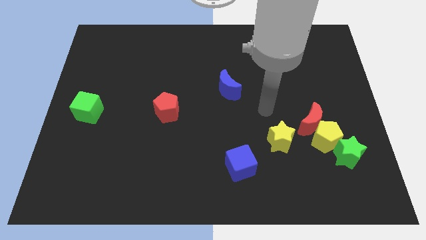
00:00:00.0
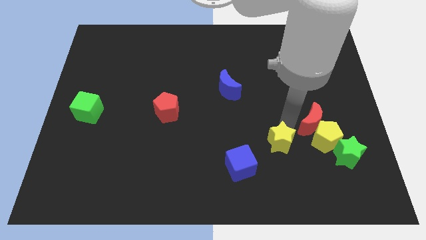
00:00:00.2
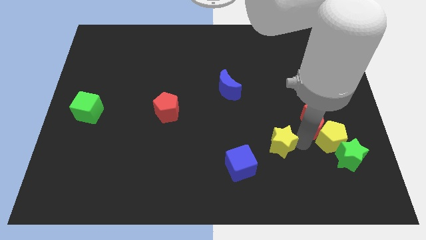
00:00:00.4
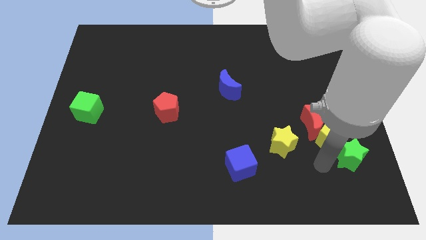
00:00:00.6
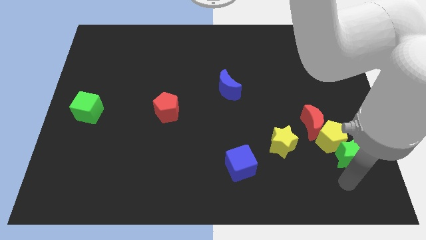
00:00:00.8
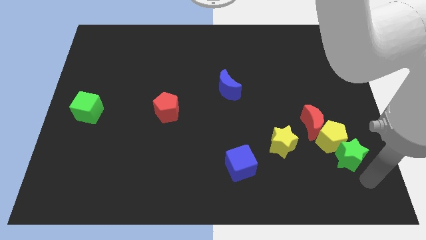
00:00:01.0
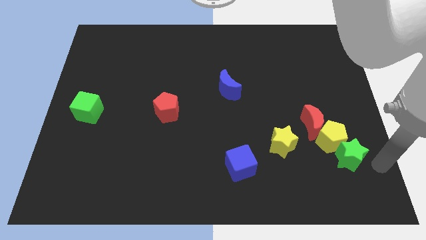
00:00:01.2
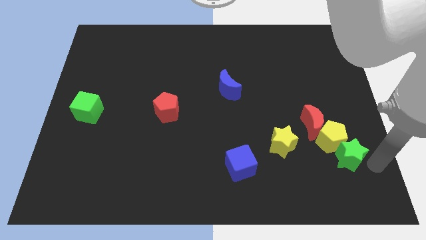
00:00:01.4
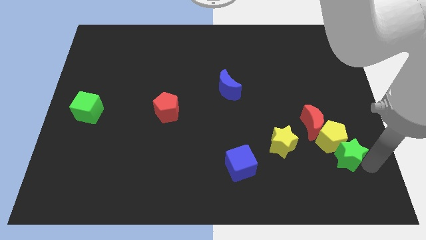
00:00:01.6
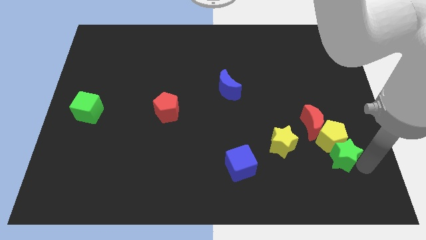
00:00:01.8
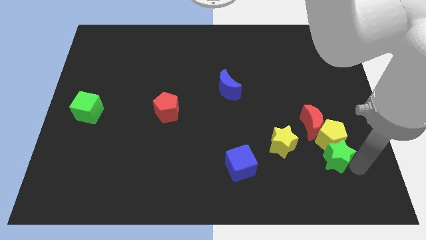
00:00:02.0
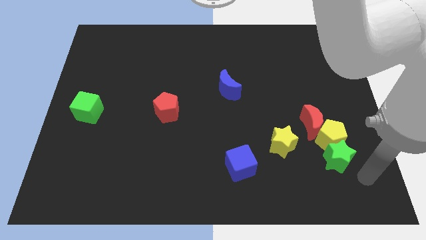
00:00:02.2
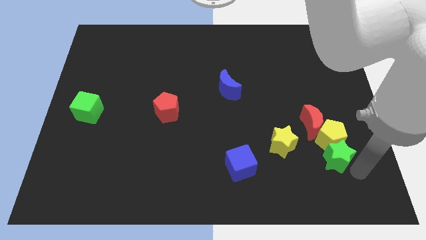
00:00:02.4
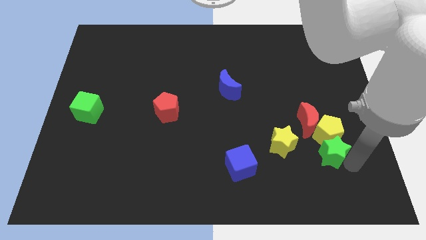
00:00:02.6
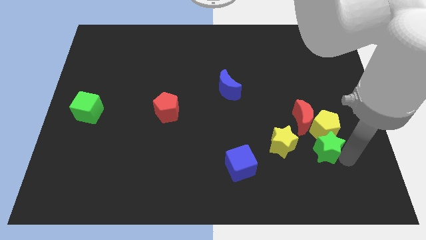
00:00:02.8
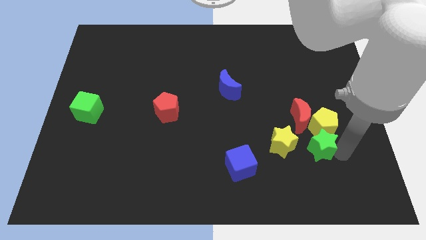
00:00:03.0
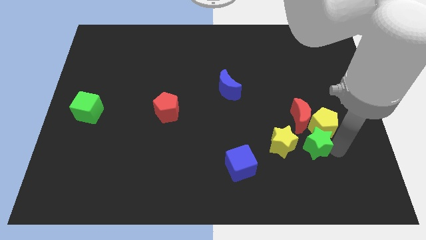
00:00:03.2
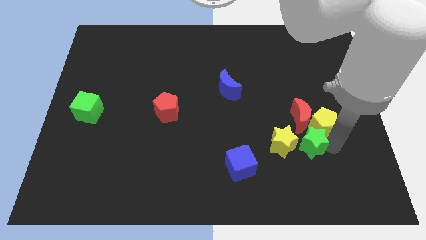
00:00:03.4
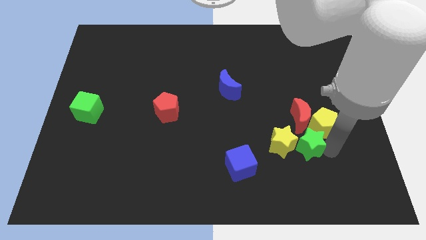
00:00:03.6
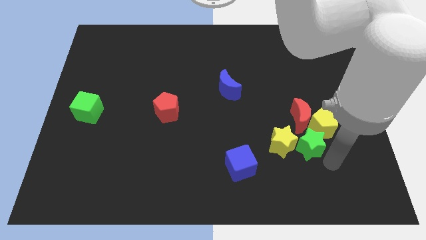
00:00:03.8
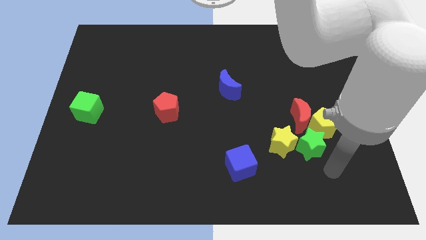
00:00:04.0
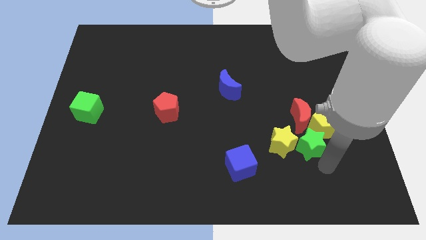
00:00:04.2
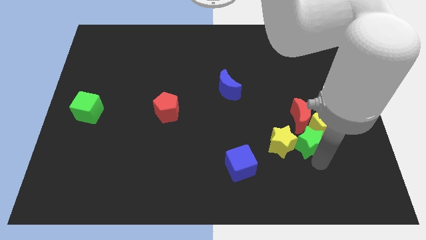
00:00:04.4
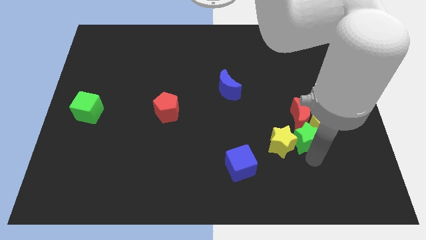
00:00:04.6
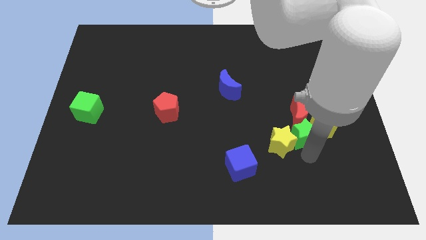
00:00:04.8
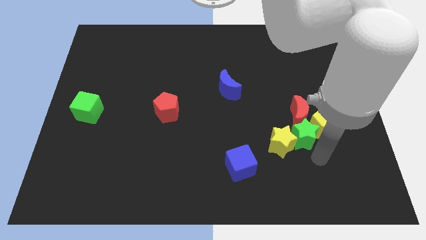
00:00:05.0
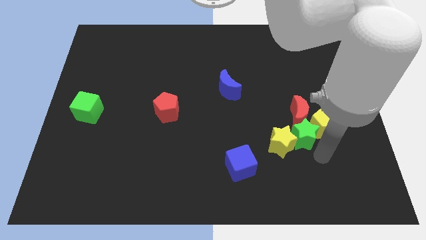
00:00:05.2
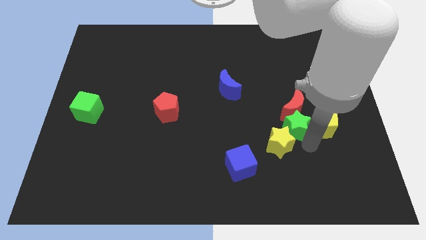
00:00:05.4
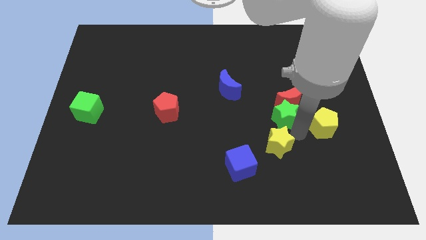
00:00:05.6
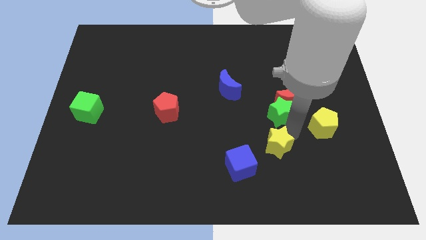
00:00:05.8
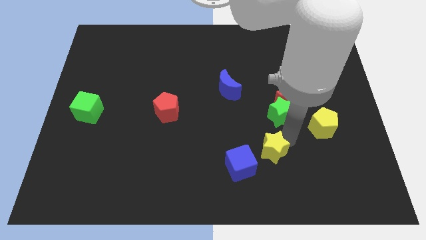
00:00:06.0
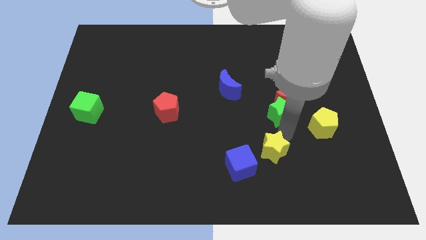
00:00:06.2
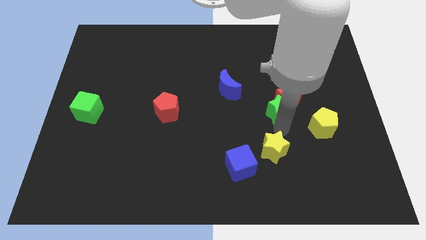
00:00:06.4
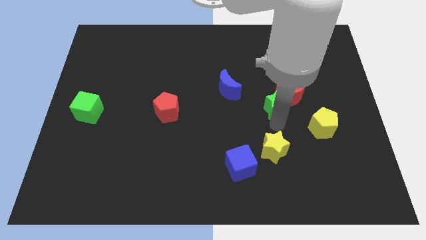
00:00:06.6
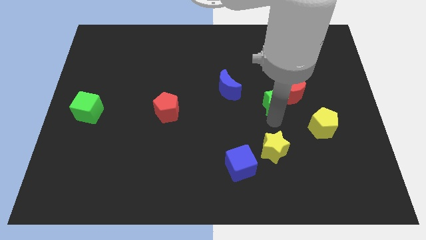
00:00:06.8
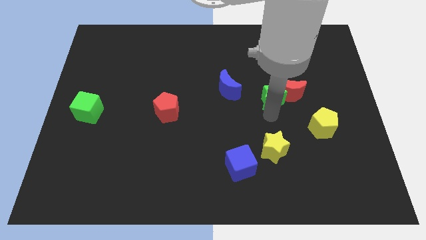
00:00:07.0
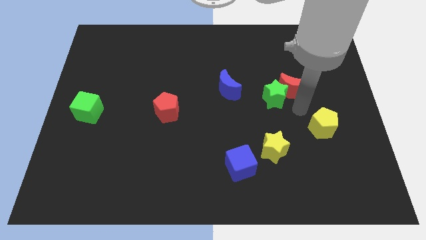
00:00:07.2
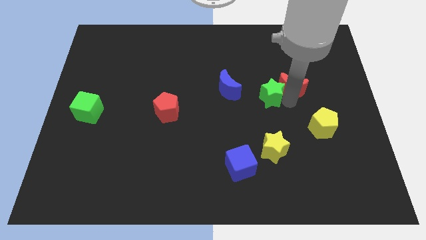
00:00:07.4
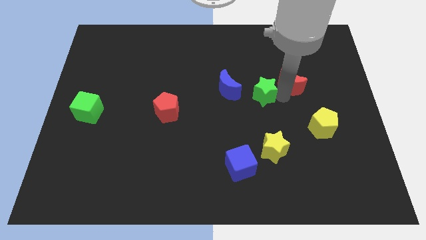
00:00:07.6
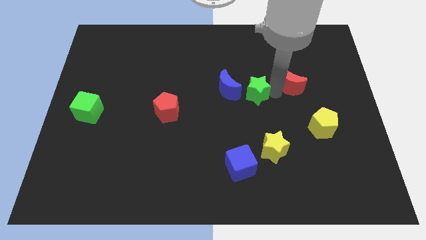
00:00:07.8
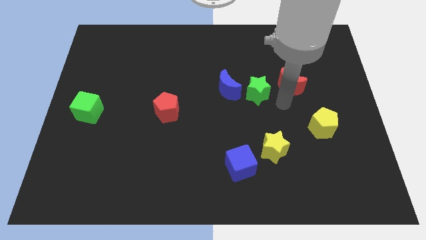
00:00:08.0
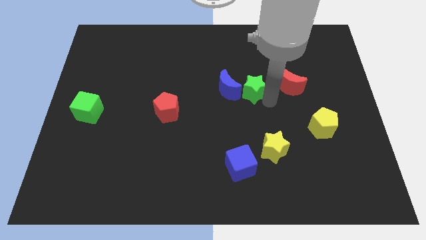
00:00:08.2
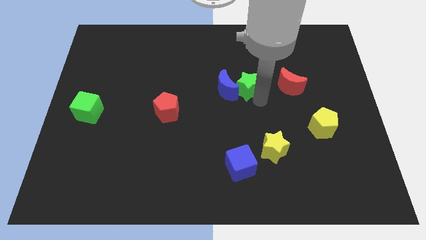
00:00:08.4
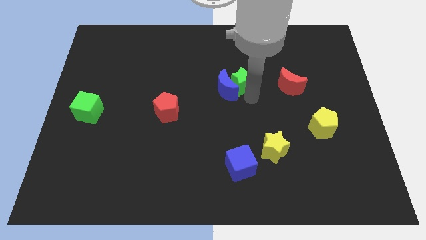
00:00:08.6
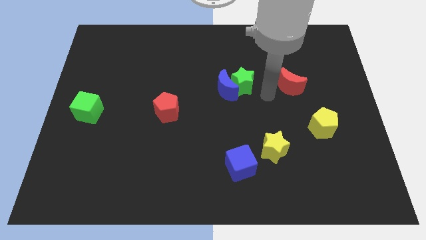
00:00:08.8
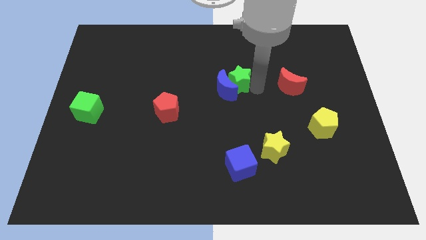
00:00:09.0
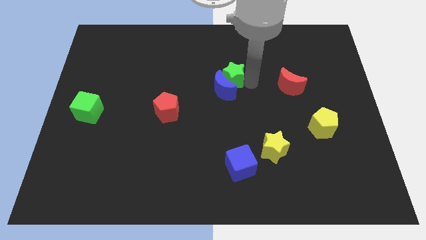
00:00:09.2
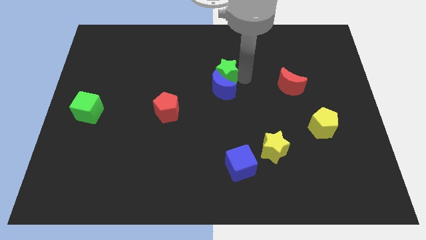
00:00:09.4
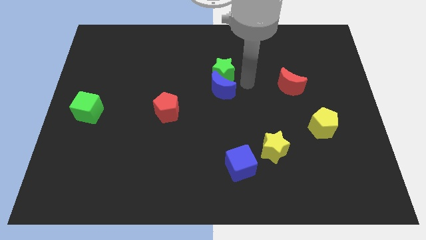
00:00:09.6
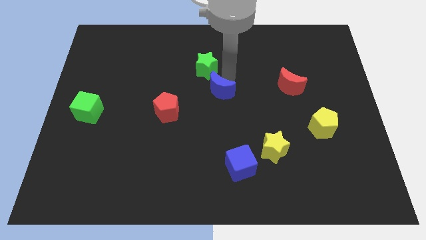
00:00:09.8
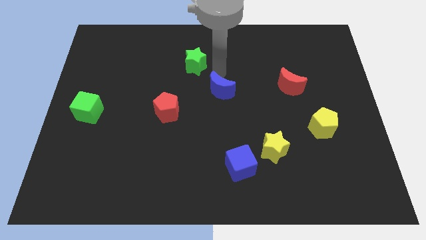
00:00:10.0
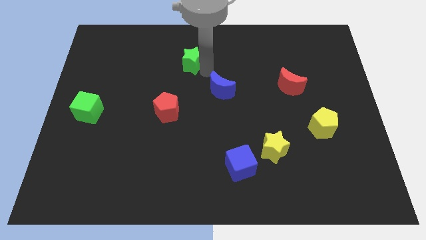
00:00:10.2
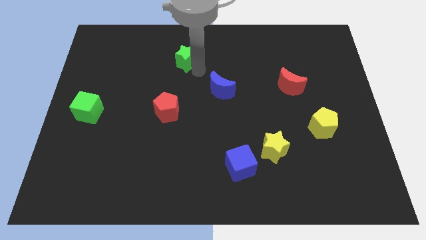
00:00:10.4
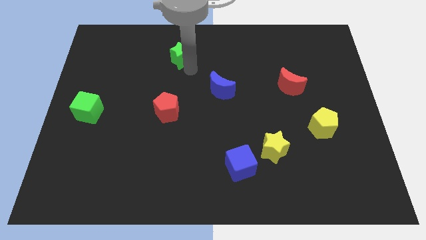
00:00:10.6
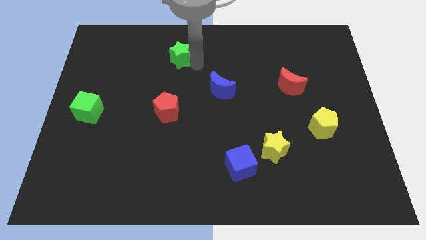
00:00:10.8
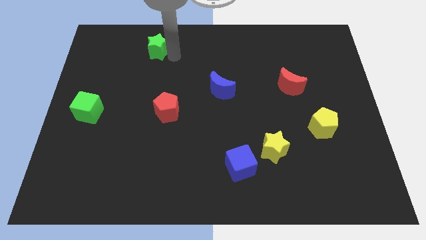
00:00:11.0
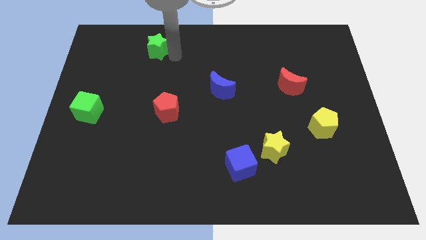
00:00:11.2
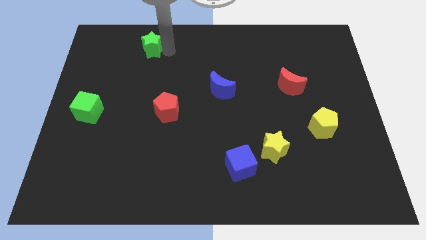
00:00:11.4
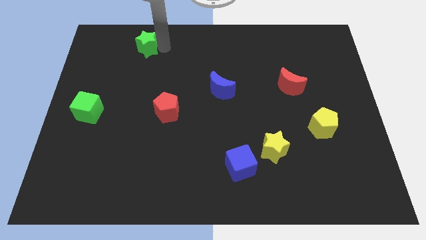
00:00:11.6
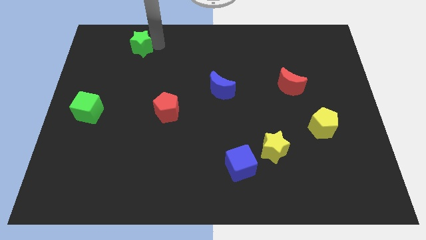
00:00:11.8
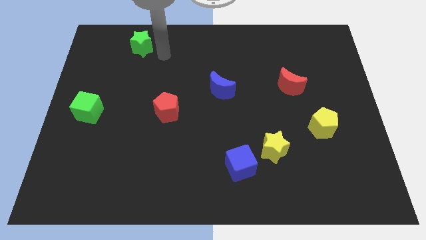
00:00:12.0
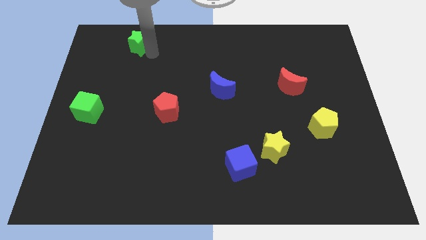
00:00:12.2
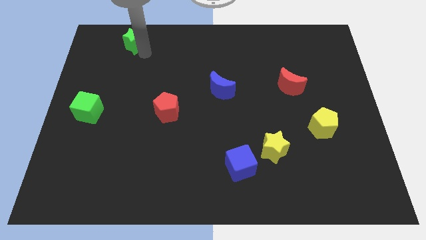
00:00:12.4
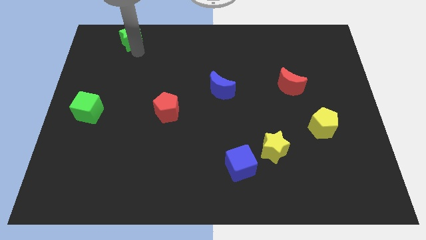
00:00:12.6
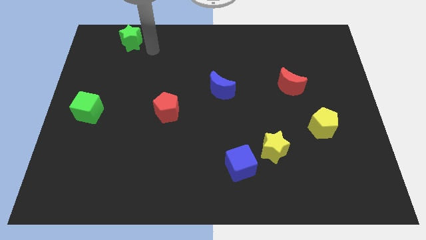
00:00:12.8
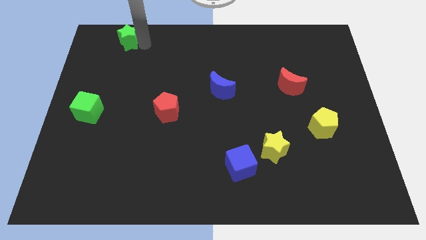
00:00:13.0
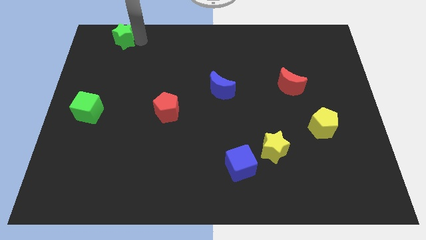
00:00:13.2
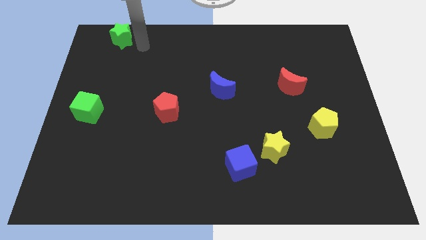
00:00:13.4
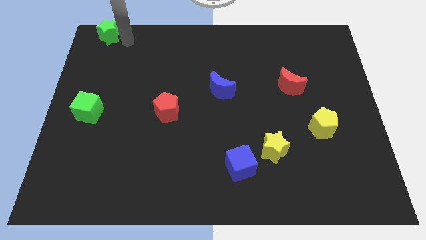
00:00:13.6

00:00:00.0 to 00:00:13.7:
put the green star to the top left
